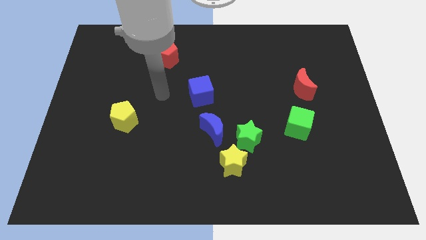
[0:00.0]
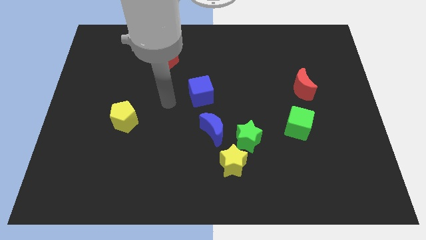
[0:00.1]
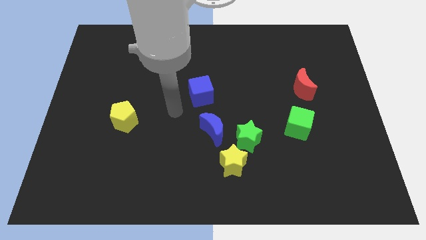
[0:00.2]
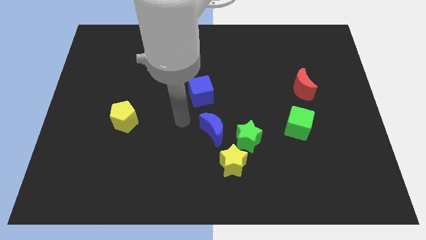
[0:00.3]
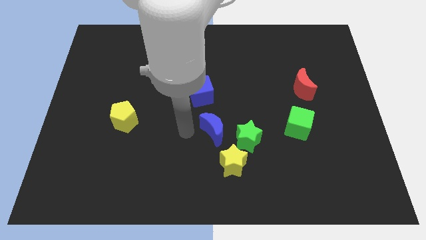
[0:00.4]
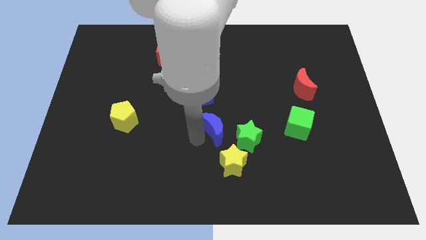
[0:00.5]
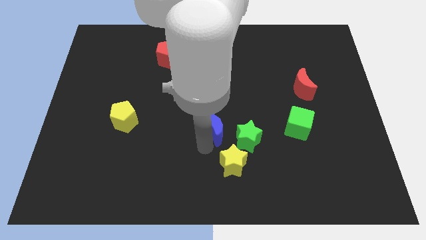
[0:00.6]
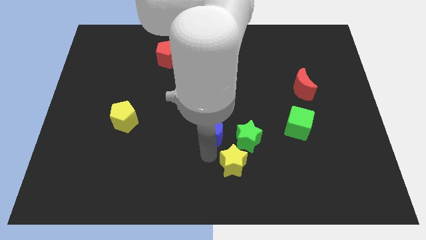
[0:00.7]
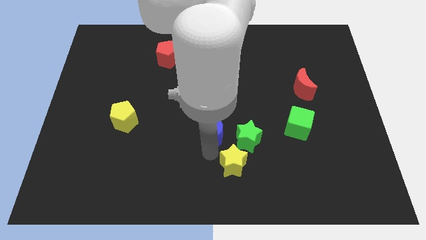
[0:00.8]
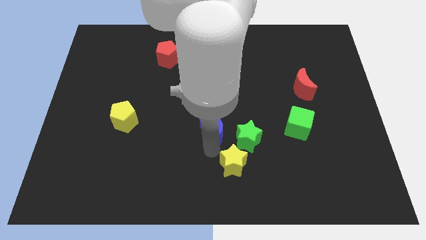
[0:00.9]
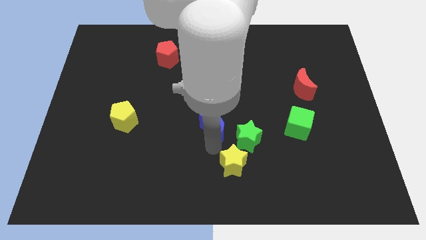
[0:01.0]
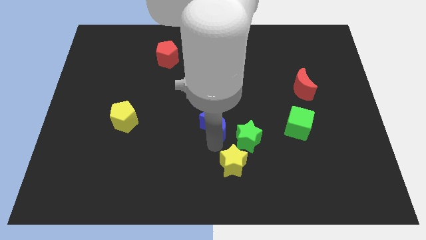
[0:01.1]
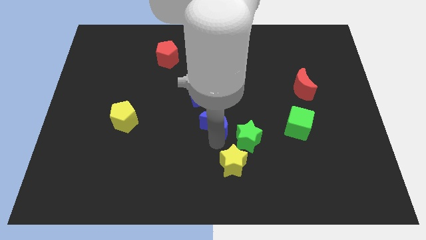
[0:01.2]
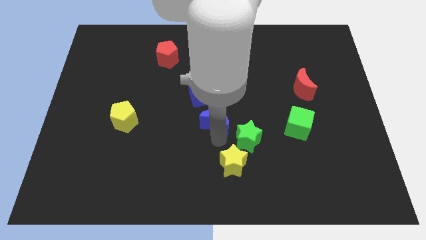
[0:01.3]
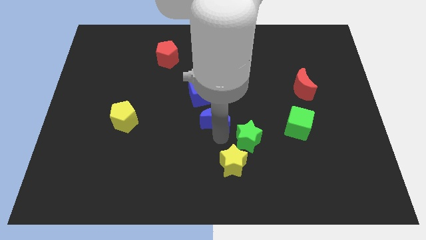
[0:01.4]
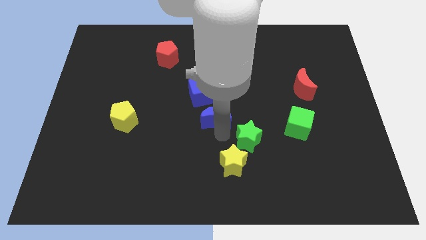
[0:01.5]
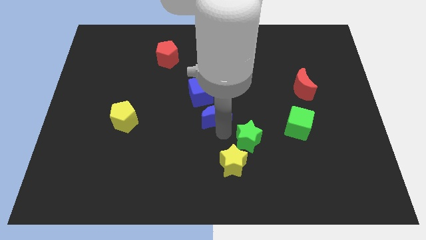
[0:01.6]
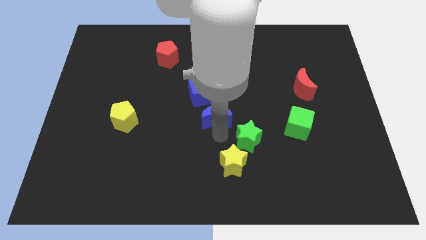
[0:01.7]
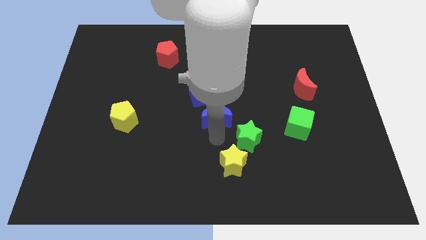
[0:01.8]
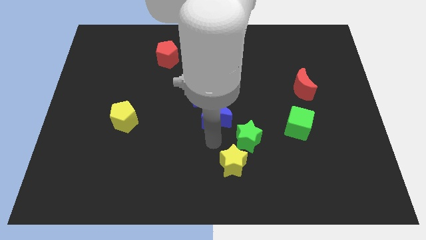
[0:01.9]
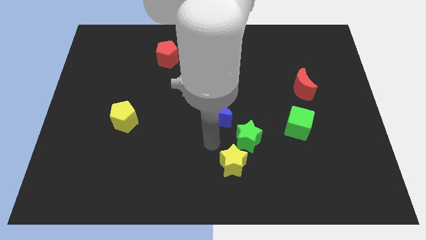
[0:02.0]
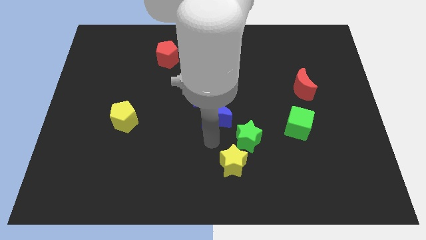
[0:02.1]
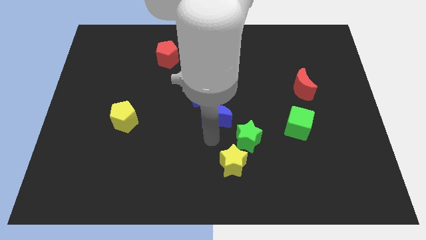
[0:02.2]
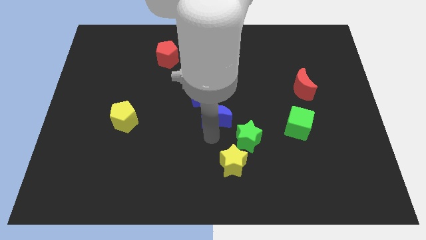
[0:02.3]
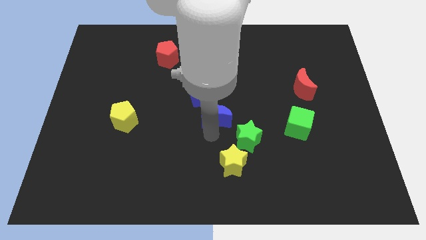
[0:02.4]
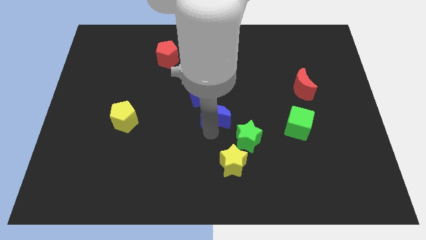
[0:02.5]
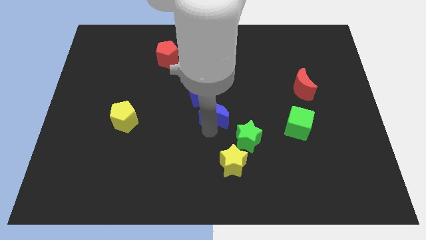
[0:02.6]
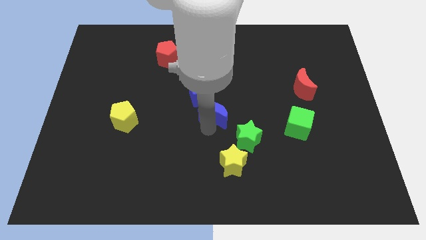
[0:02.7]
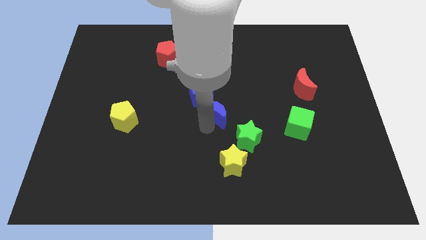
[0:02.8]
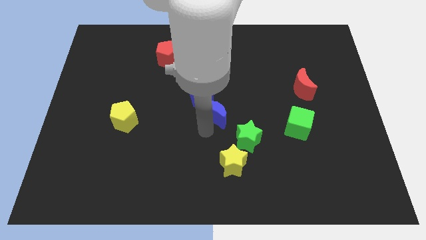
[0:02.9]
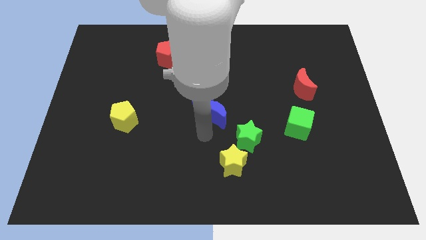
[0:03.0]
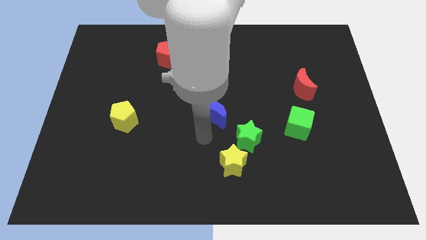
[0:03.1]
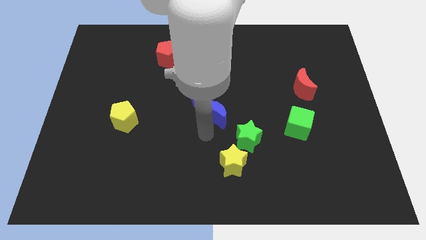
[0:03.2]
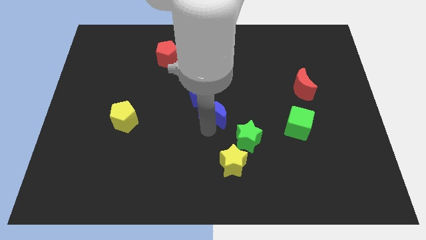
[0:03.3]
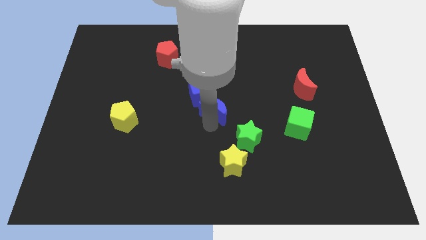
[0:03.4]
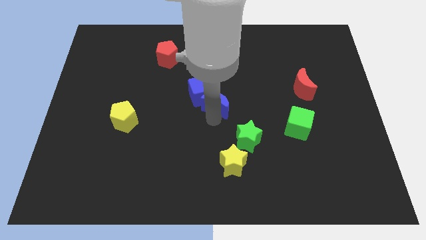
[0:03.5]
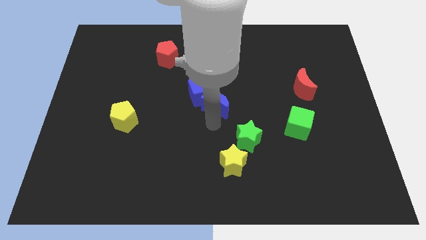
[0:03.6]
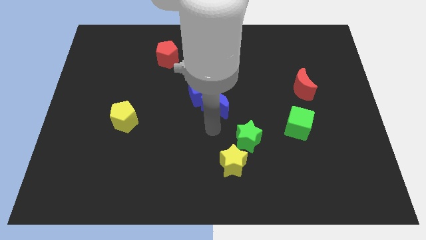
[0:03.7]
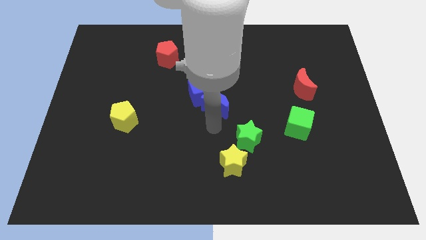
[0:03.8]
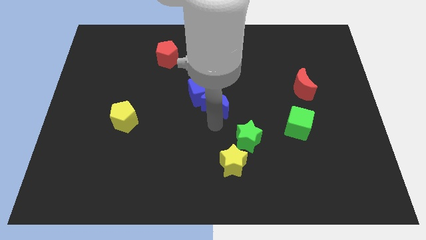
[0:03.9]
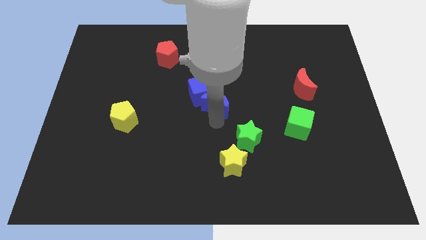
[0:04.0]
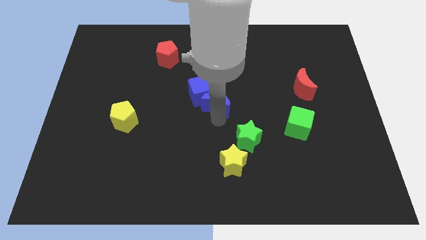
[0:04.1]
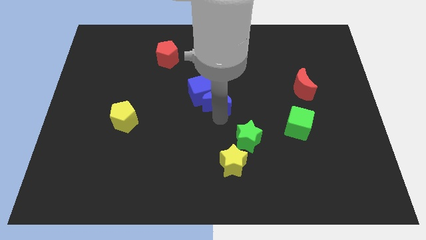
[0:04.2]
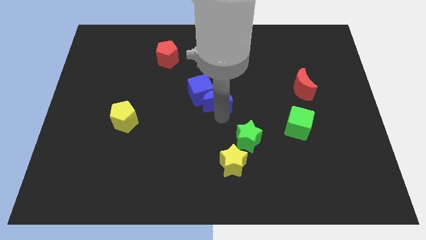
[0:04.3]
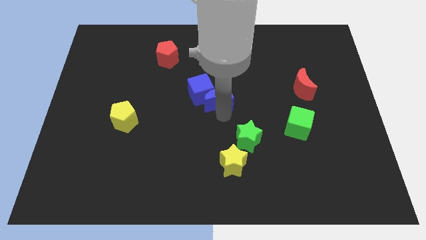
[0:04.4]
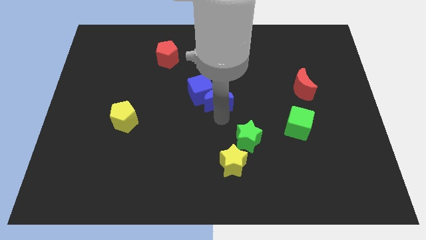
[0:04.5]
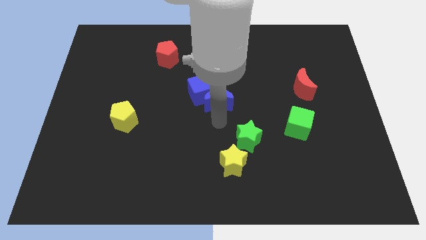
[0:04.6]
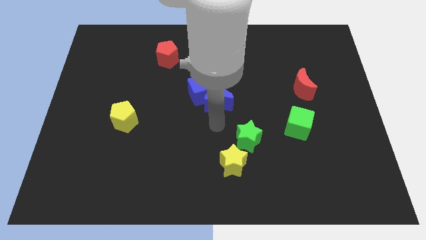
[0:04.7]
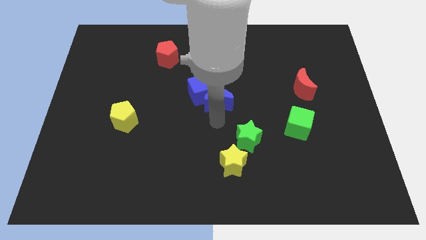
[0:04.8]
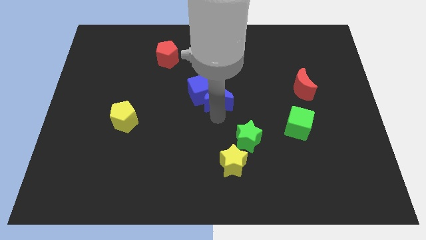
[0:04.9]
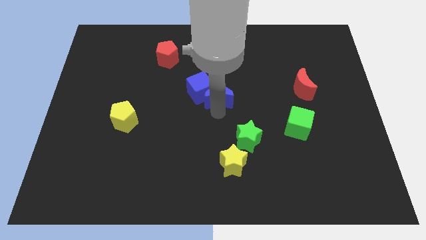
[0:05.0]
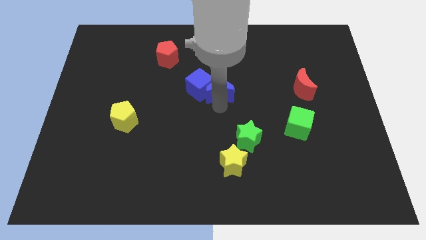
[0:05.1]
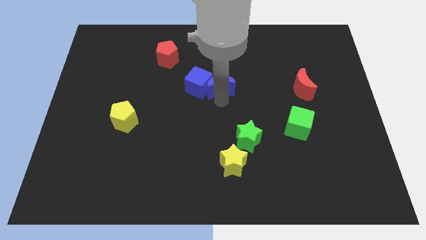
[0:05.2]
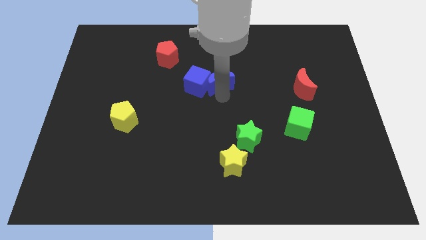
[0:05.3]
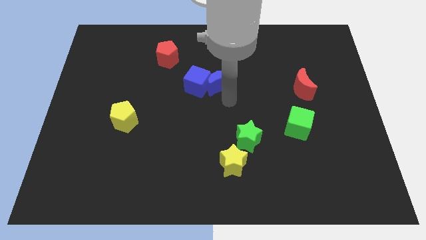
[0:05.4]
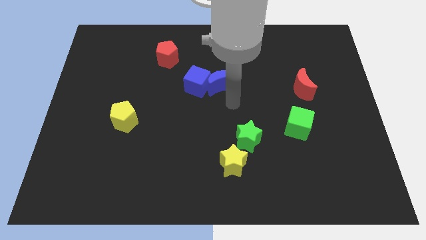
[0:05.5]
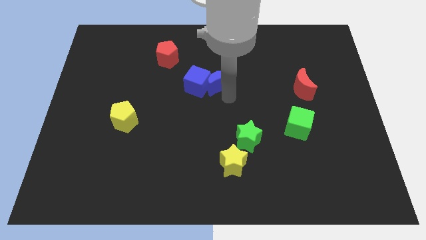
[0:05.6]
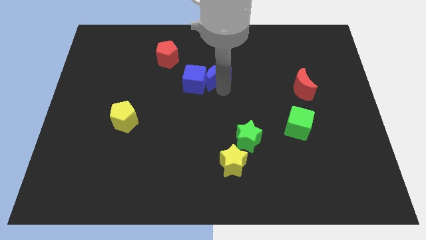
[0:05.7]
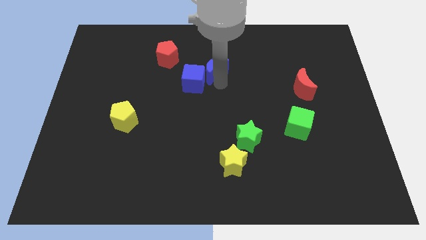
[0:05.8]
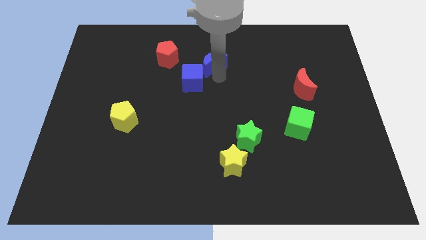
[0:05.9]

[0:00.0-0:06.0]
slide the blue moon above the blue cube

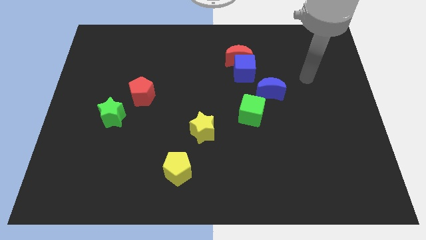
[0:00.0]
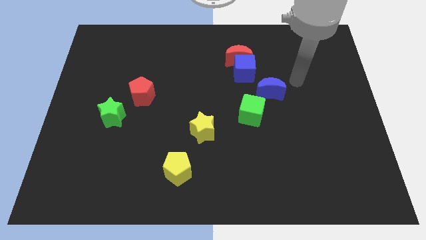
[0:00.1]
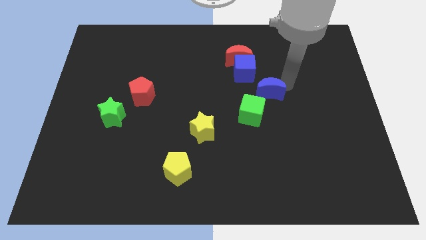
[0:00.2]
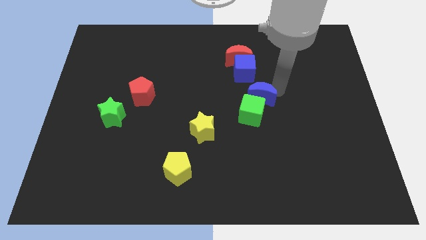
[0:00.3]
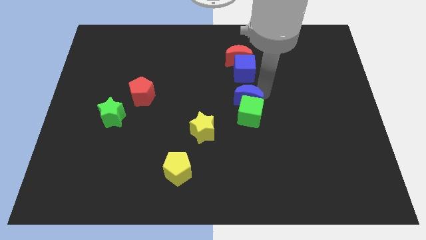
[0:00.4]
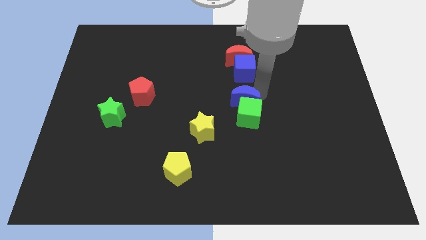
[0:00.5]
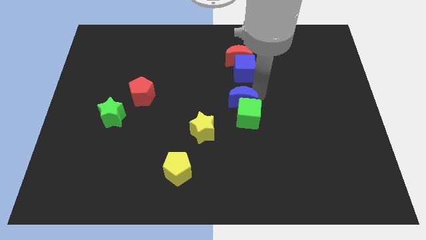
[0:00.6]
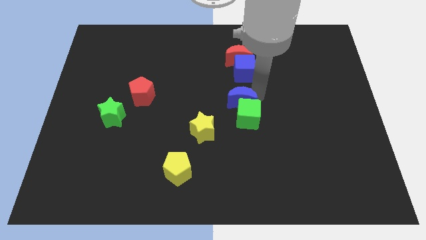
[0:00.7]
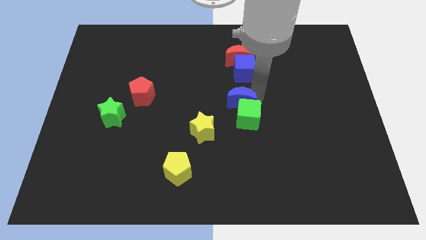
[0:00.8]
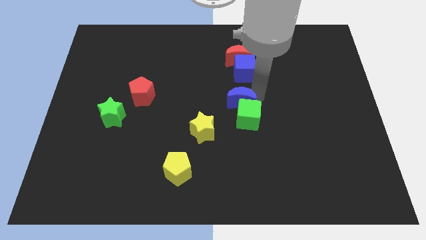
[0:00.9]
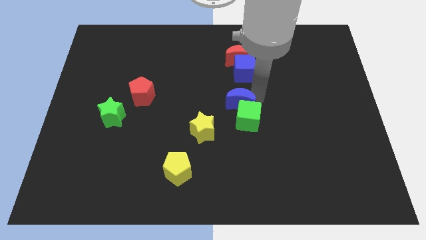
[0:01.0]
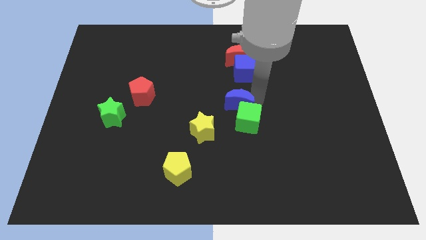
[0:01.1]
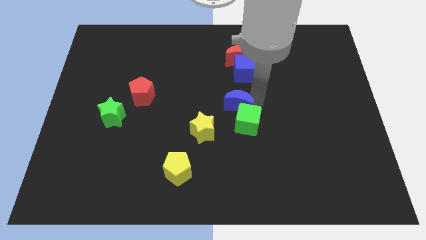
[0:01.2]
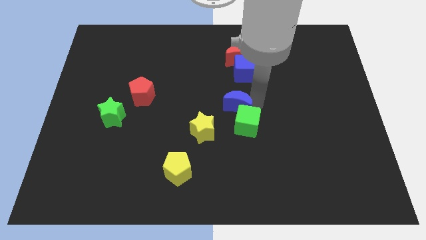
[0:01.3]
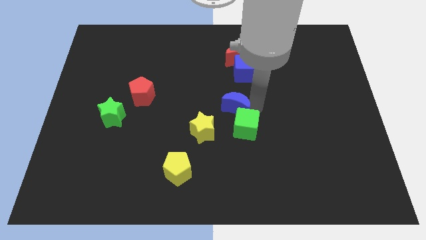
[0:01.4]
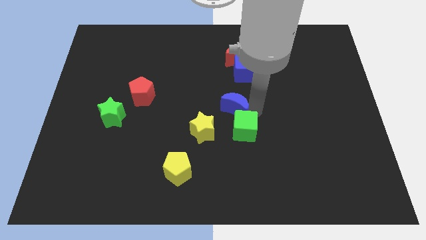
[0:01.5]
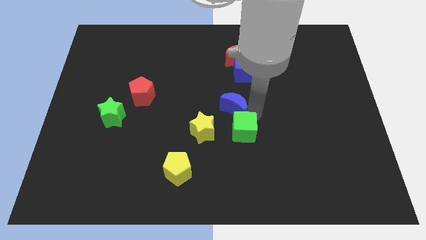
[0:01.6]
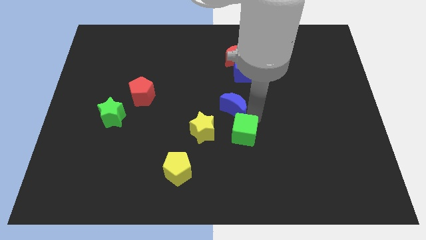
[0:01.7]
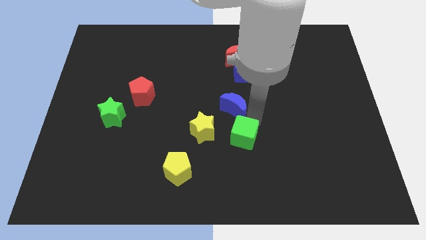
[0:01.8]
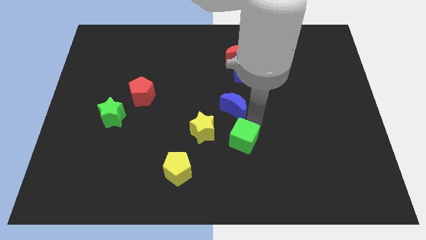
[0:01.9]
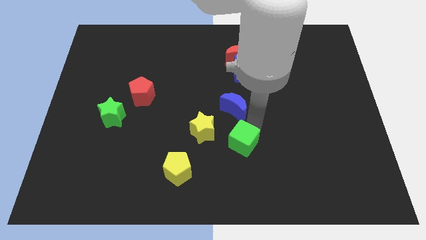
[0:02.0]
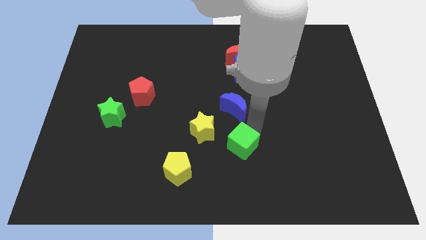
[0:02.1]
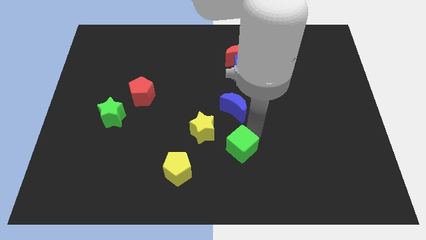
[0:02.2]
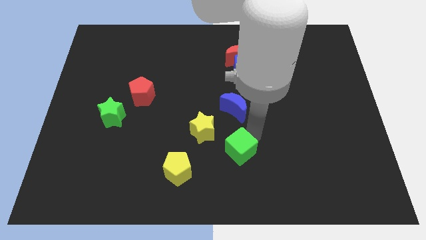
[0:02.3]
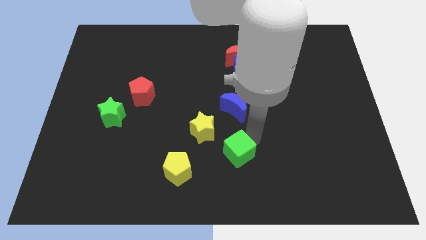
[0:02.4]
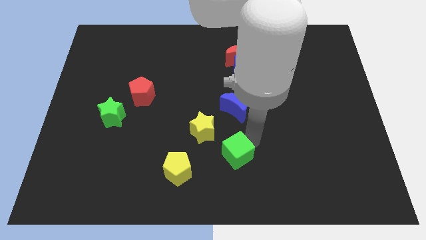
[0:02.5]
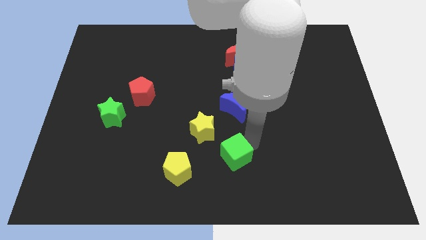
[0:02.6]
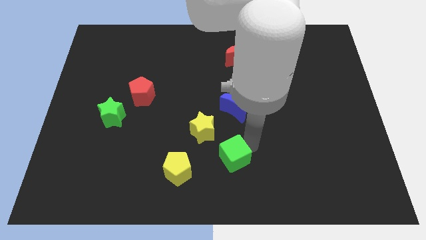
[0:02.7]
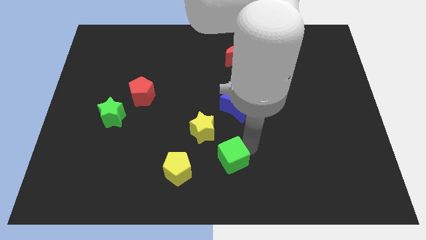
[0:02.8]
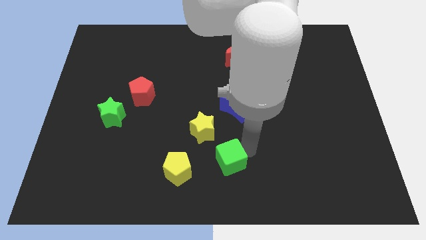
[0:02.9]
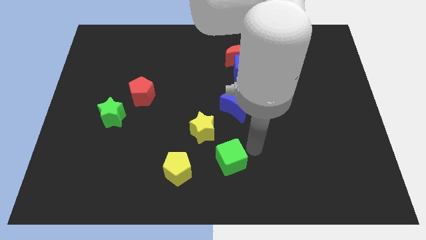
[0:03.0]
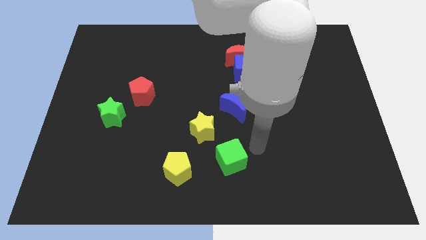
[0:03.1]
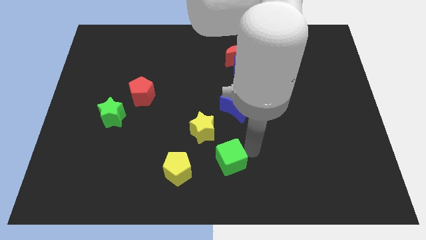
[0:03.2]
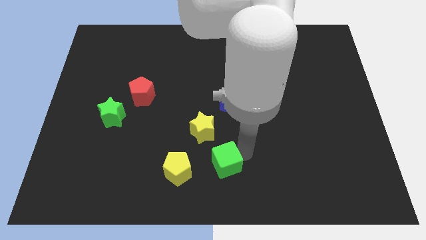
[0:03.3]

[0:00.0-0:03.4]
put the green cube below the yellow star
